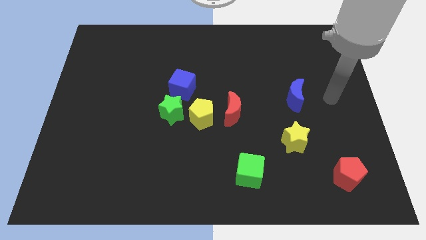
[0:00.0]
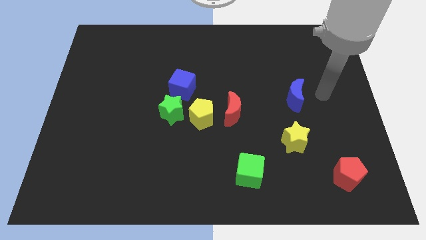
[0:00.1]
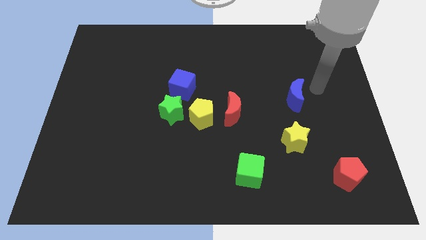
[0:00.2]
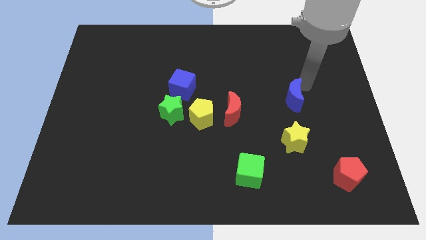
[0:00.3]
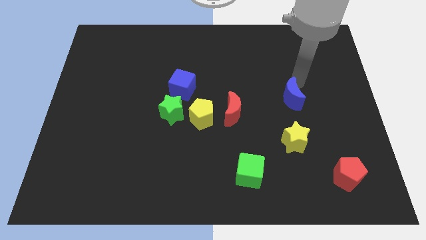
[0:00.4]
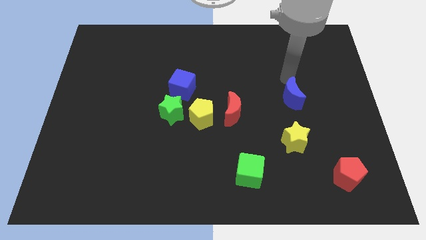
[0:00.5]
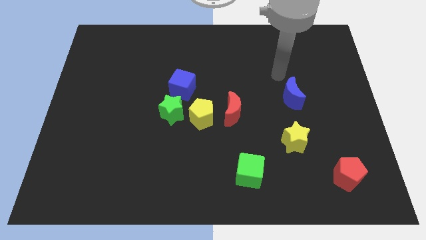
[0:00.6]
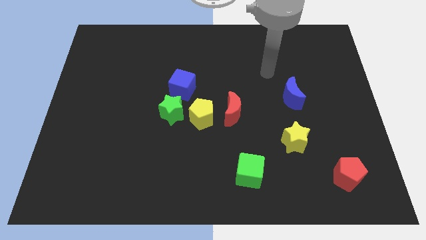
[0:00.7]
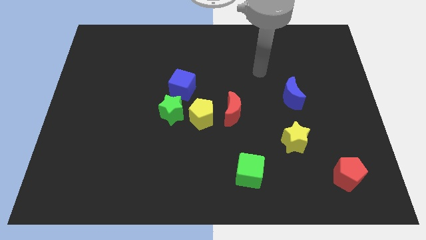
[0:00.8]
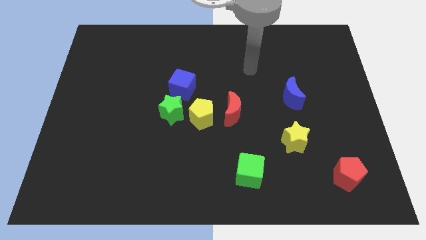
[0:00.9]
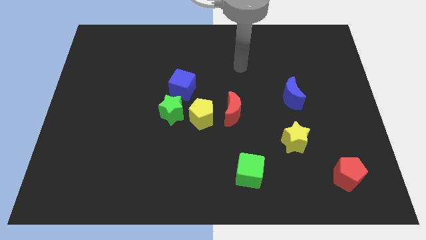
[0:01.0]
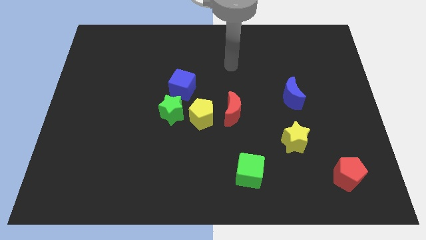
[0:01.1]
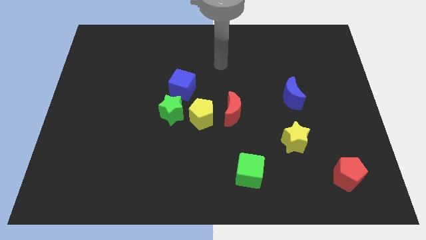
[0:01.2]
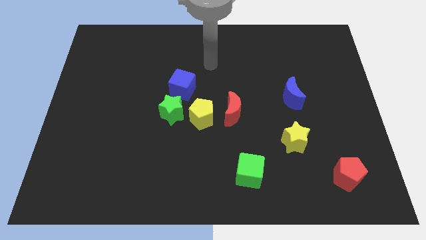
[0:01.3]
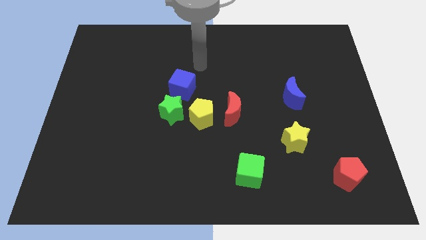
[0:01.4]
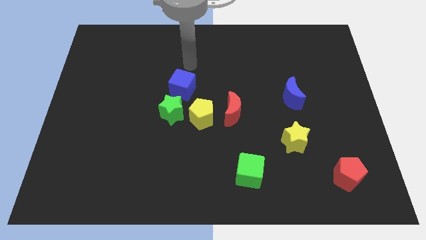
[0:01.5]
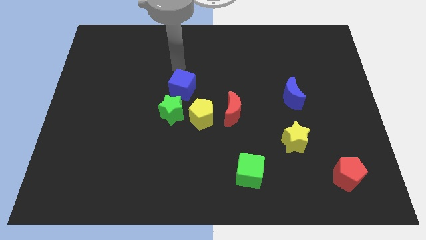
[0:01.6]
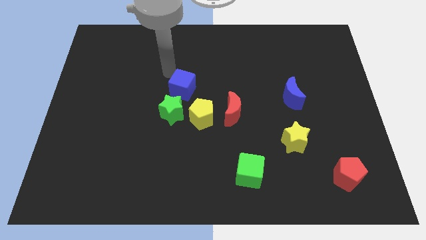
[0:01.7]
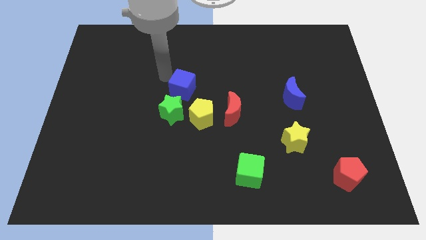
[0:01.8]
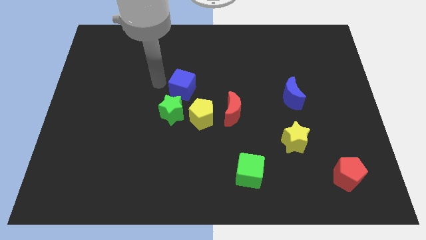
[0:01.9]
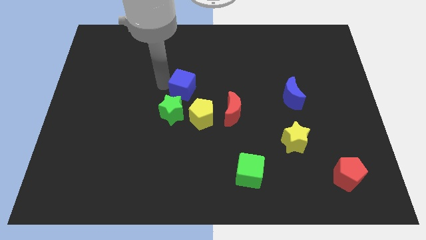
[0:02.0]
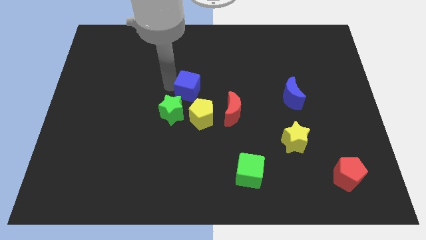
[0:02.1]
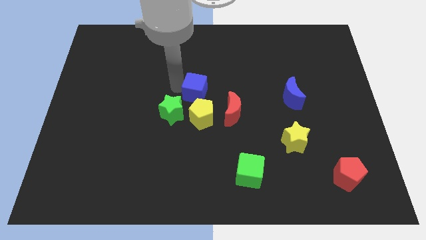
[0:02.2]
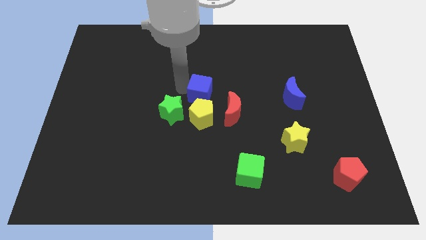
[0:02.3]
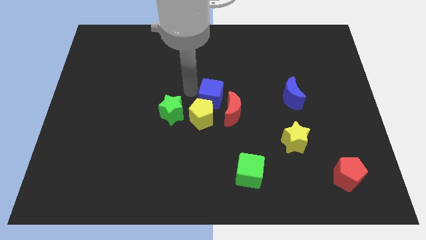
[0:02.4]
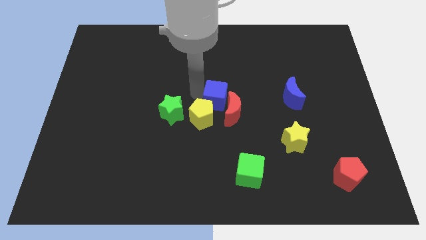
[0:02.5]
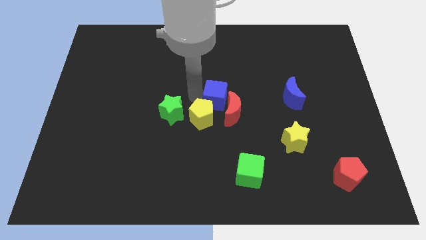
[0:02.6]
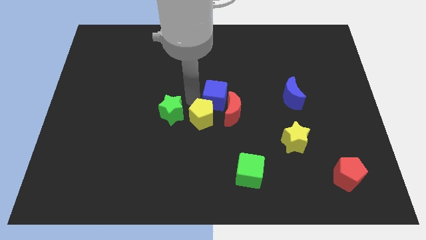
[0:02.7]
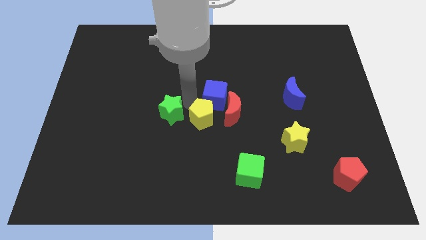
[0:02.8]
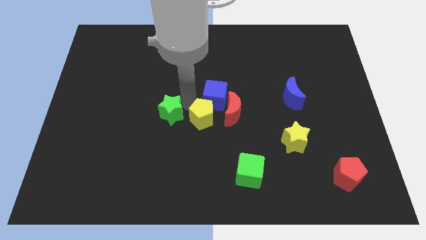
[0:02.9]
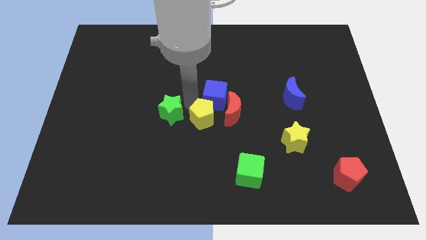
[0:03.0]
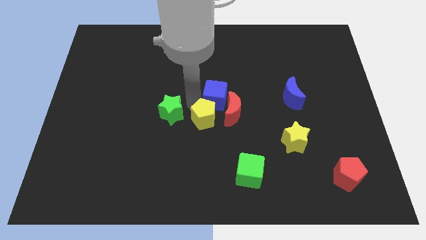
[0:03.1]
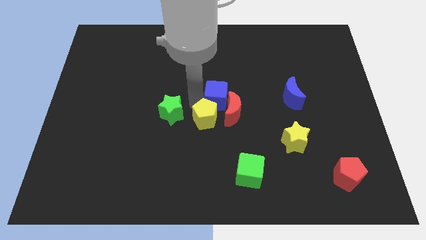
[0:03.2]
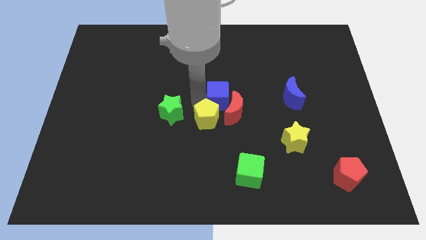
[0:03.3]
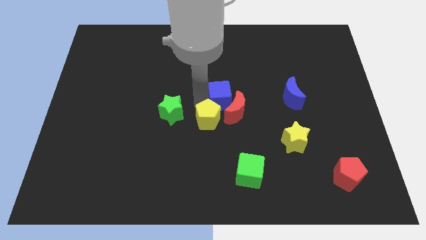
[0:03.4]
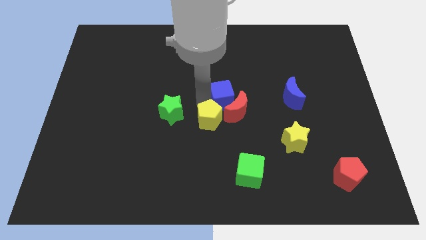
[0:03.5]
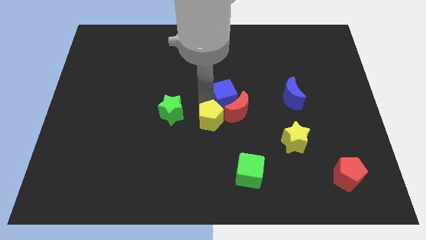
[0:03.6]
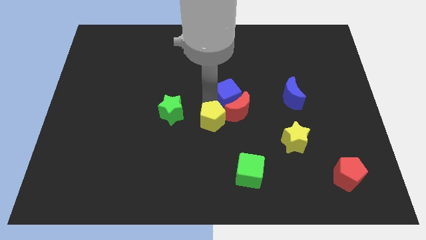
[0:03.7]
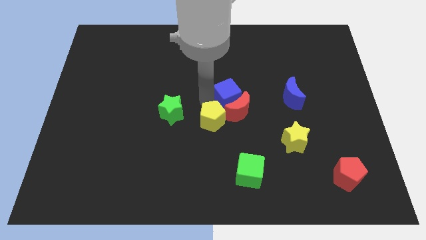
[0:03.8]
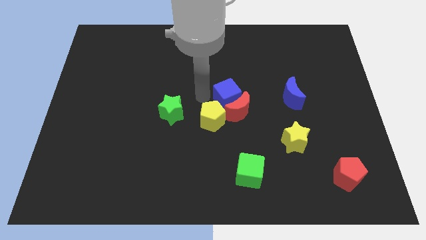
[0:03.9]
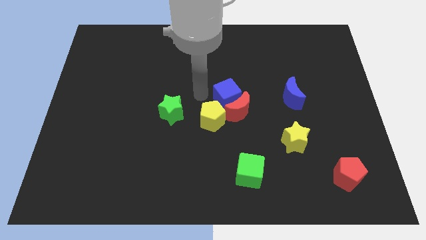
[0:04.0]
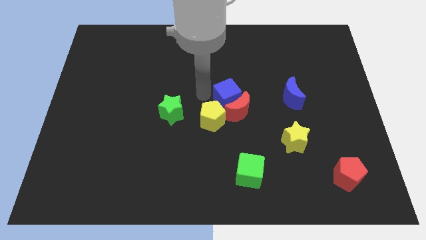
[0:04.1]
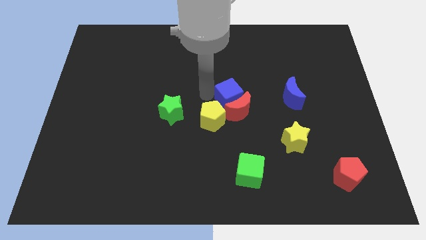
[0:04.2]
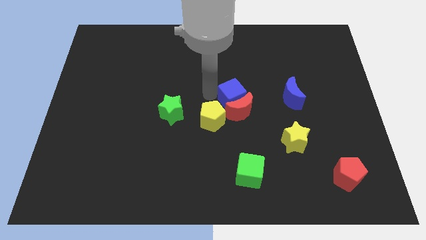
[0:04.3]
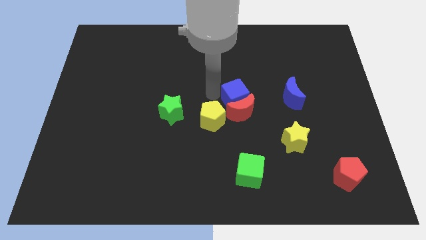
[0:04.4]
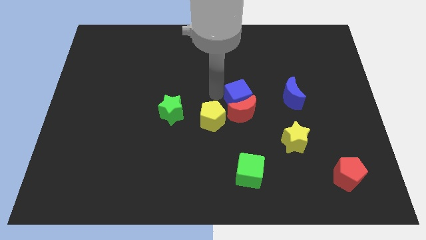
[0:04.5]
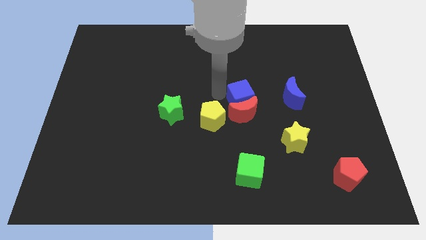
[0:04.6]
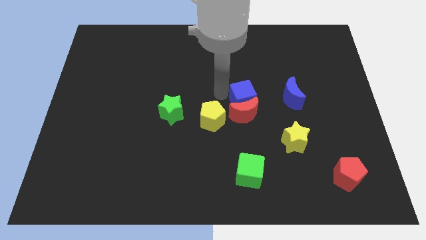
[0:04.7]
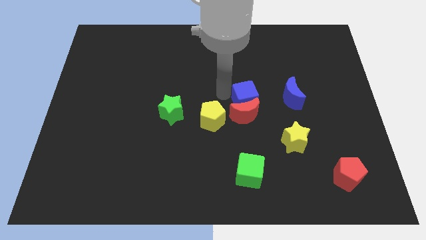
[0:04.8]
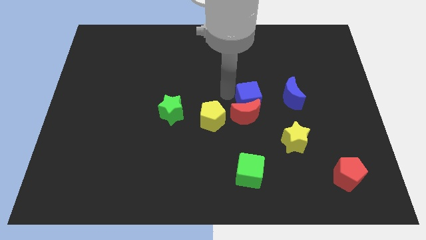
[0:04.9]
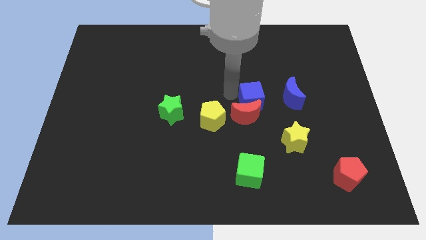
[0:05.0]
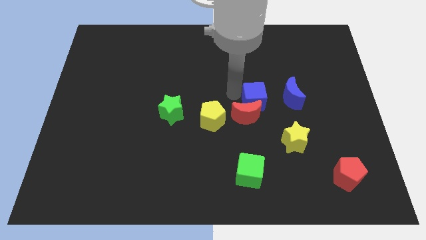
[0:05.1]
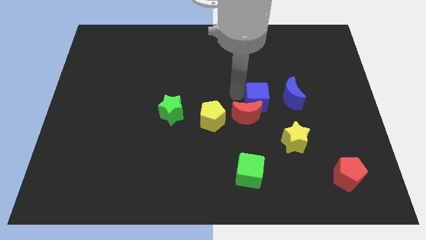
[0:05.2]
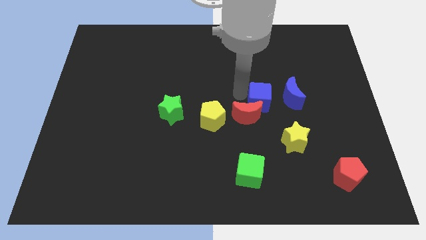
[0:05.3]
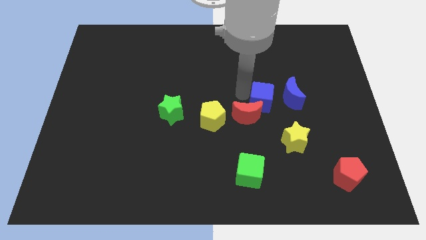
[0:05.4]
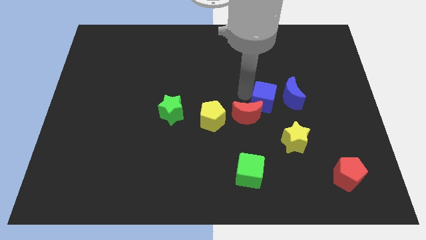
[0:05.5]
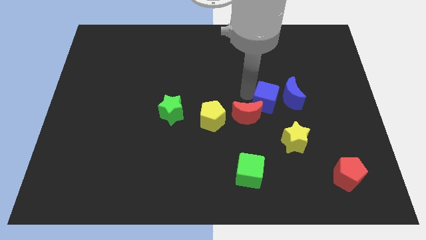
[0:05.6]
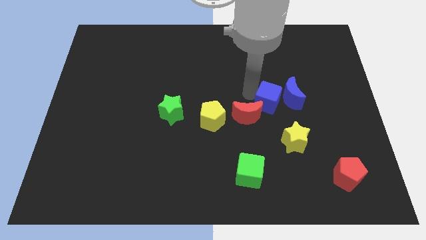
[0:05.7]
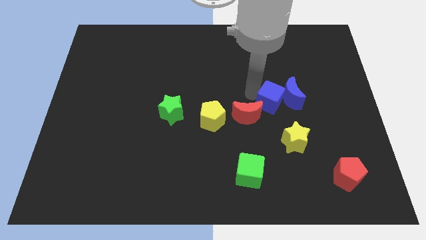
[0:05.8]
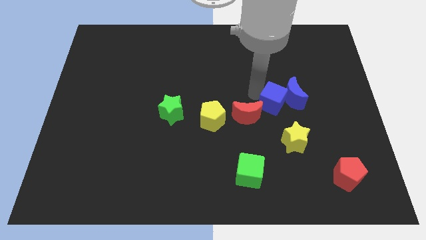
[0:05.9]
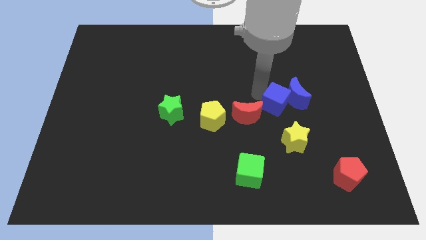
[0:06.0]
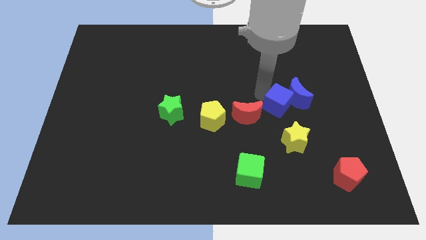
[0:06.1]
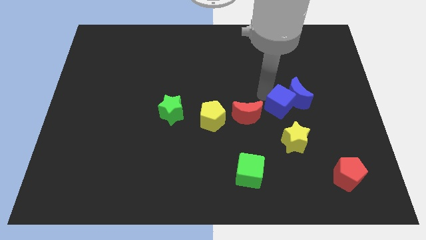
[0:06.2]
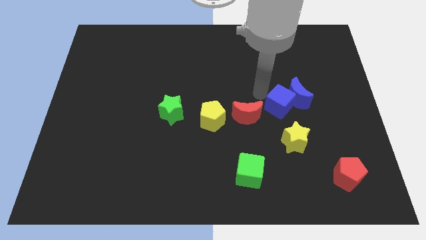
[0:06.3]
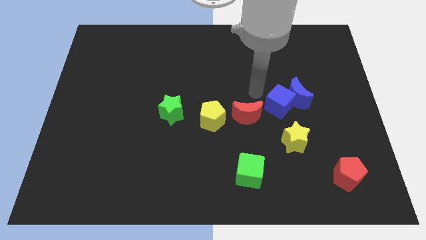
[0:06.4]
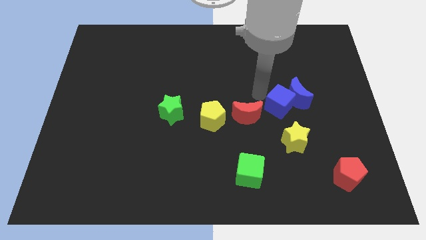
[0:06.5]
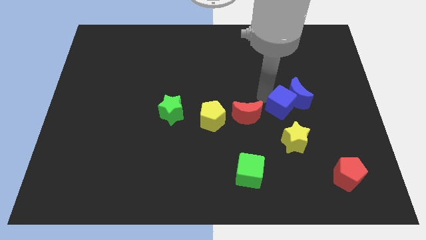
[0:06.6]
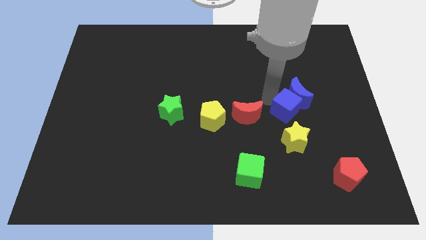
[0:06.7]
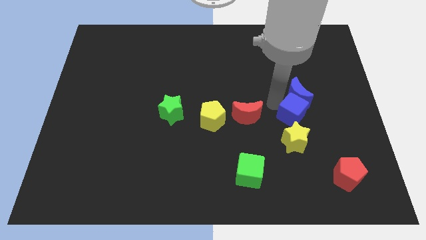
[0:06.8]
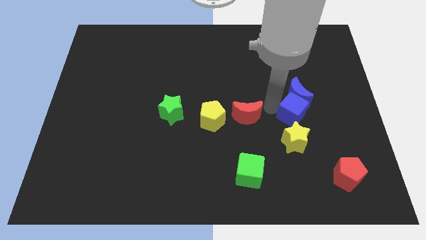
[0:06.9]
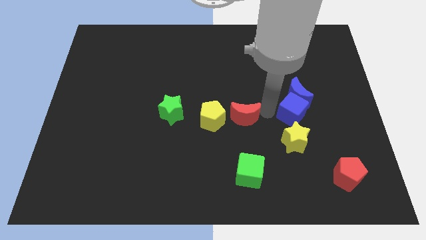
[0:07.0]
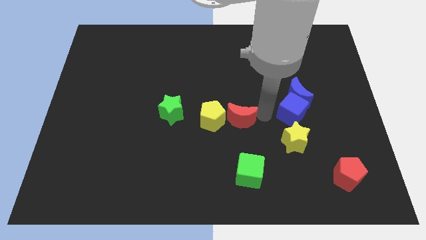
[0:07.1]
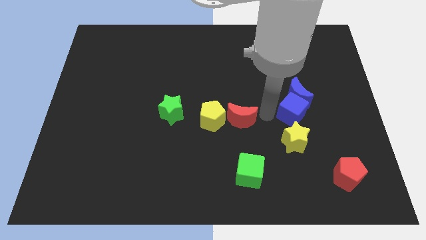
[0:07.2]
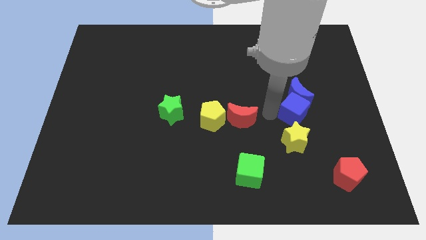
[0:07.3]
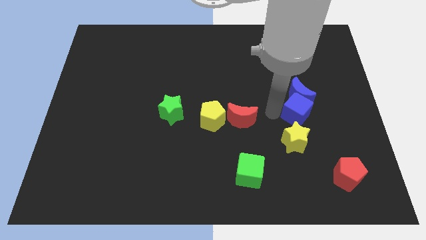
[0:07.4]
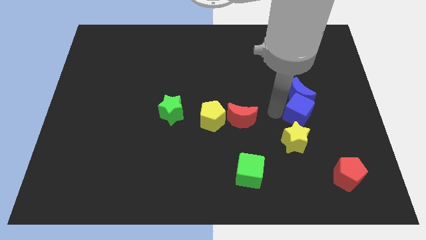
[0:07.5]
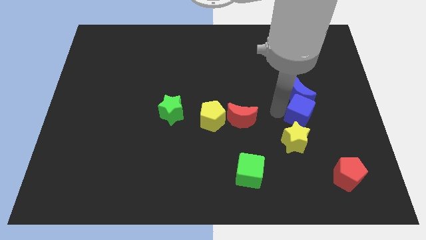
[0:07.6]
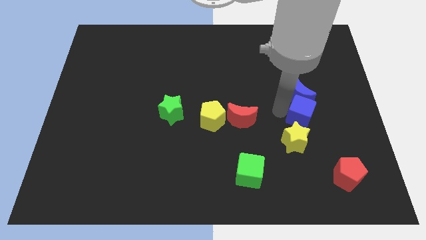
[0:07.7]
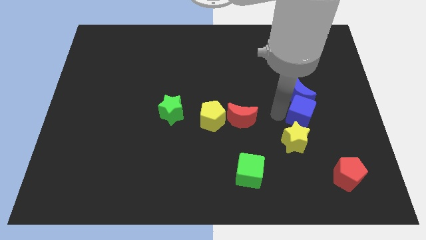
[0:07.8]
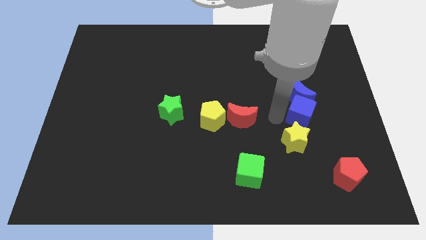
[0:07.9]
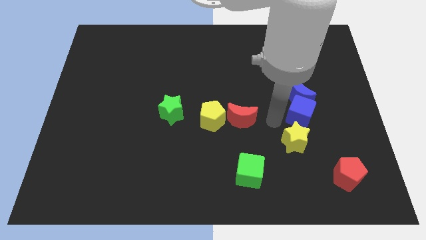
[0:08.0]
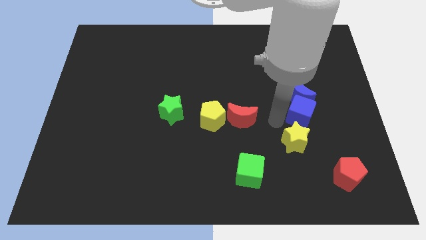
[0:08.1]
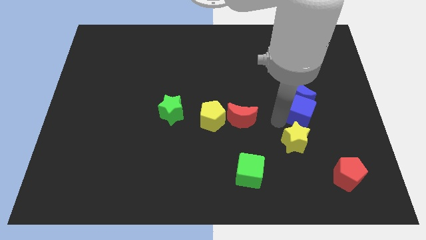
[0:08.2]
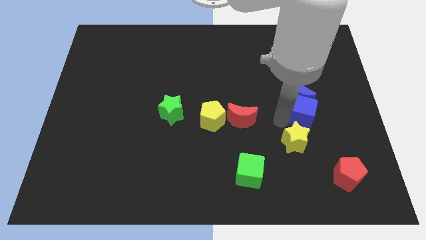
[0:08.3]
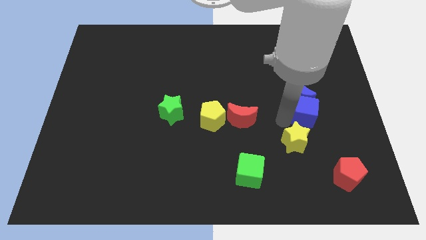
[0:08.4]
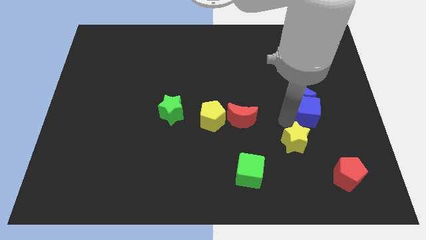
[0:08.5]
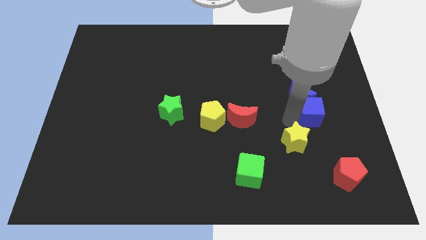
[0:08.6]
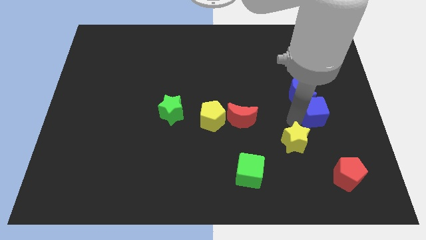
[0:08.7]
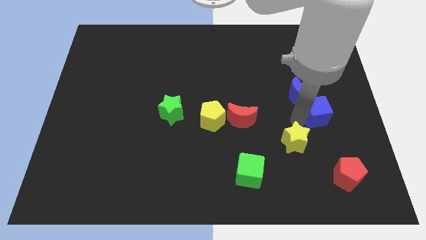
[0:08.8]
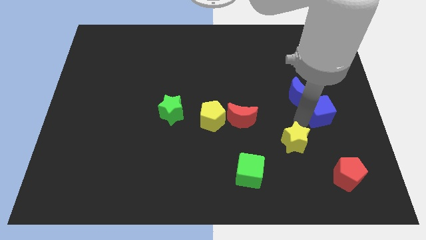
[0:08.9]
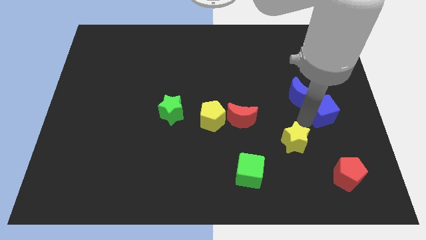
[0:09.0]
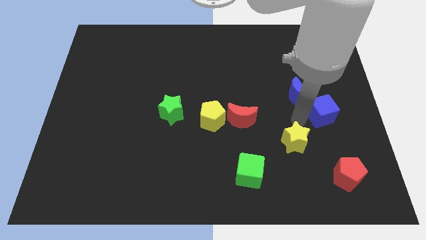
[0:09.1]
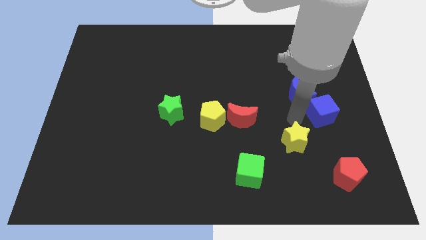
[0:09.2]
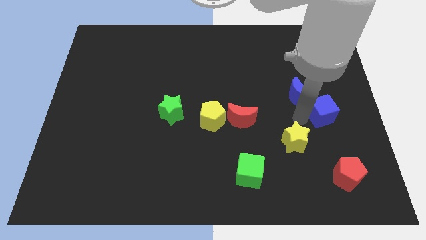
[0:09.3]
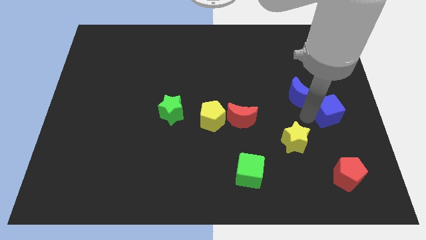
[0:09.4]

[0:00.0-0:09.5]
put the blue cube to the right side of the board
